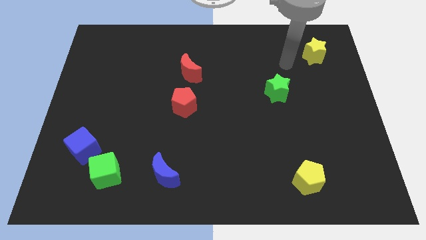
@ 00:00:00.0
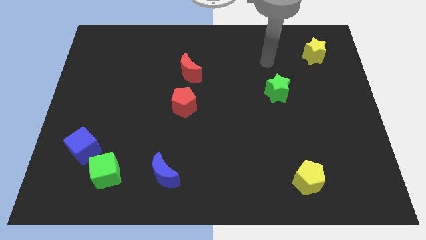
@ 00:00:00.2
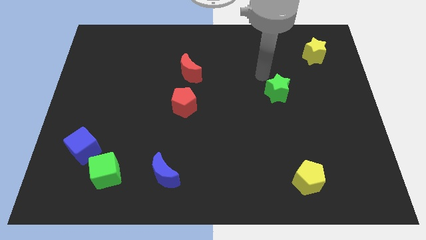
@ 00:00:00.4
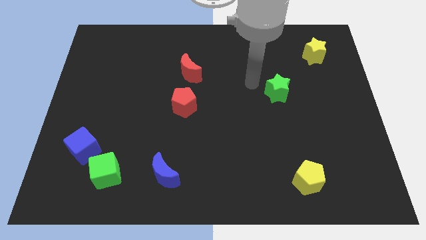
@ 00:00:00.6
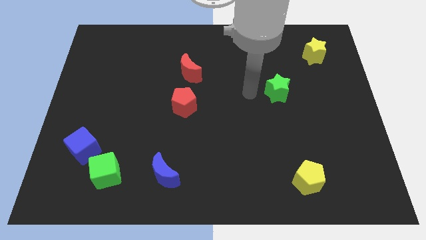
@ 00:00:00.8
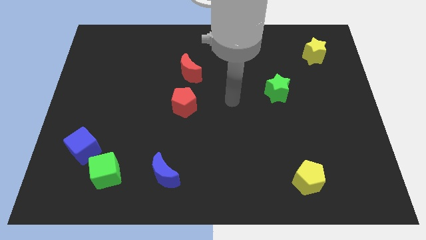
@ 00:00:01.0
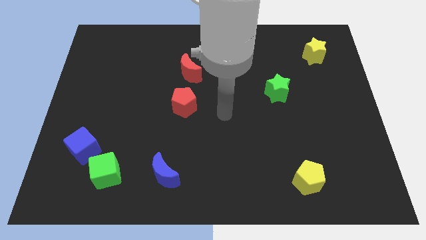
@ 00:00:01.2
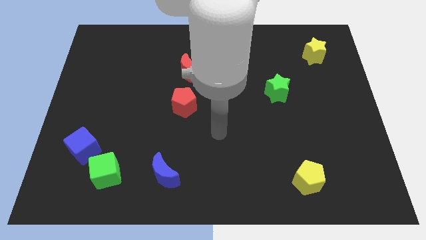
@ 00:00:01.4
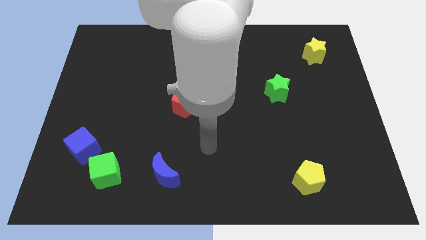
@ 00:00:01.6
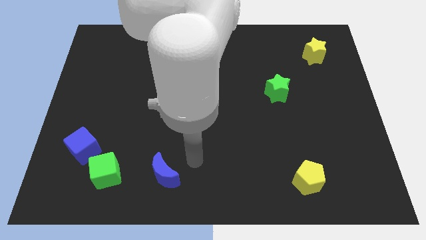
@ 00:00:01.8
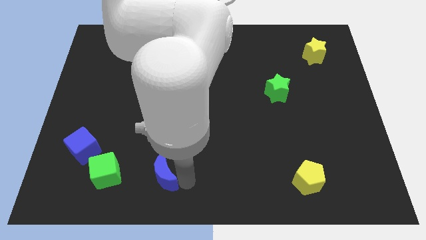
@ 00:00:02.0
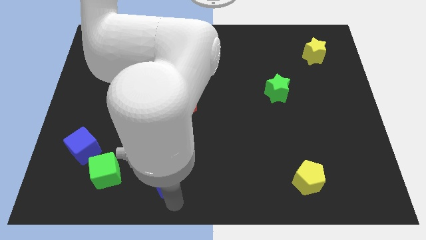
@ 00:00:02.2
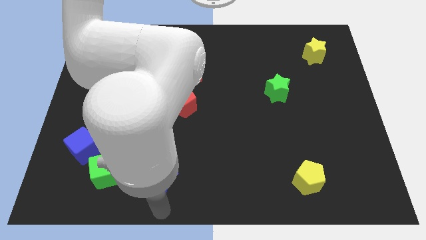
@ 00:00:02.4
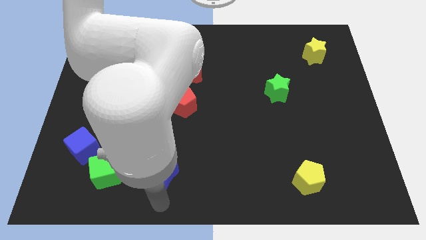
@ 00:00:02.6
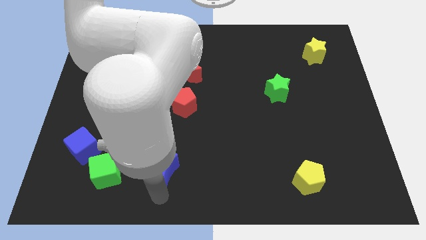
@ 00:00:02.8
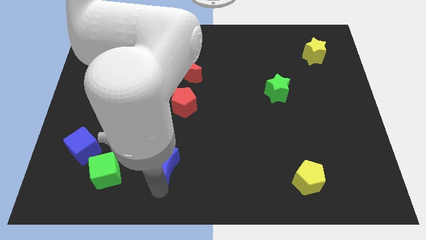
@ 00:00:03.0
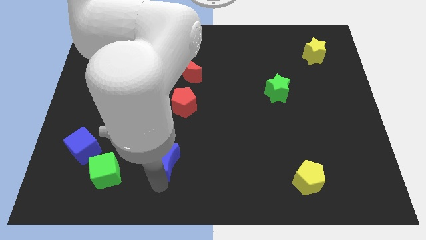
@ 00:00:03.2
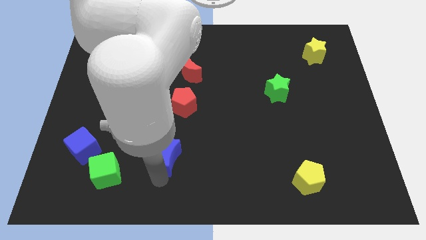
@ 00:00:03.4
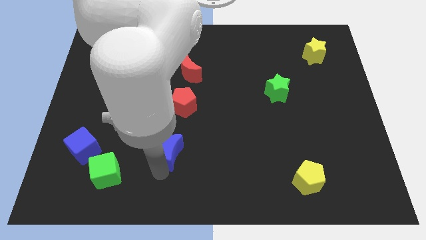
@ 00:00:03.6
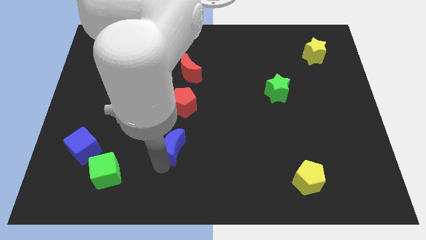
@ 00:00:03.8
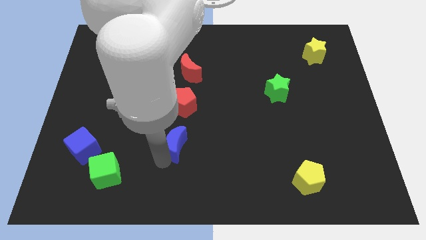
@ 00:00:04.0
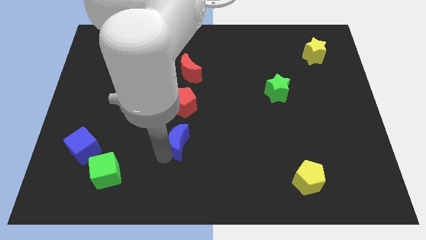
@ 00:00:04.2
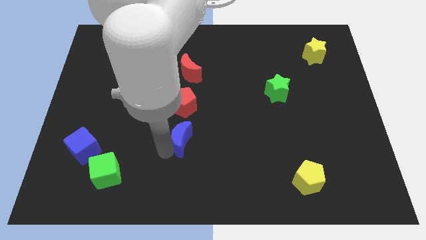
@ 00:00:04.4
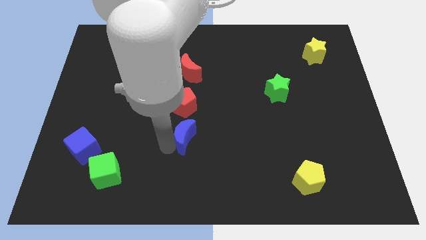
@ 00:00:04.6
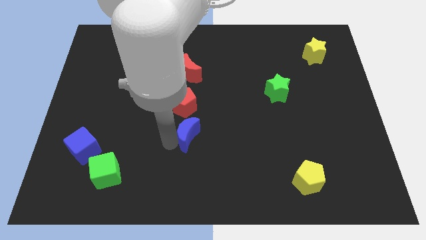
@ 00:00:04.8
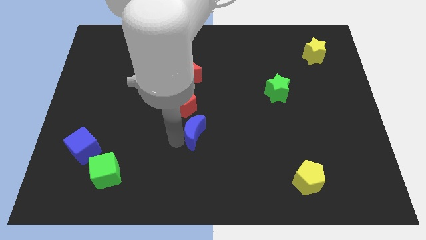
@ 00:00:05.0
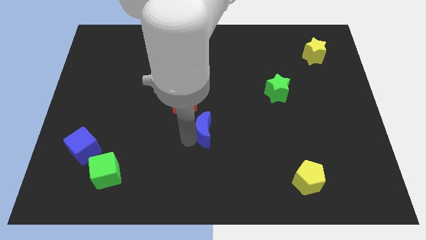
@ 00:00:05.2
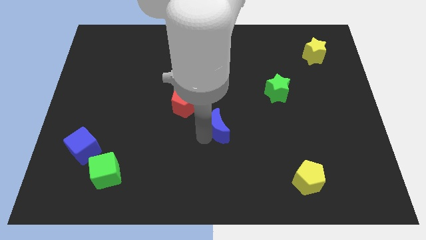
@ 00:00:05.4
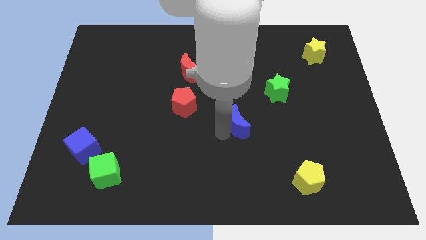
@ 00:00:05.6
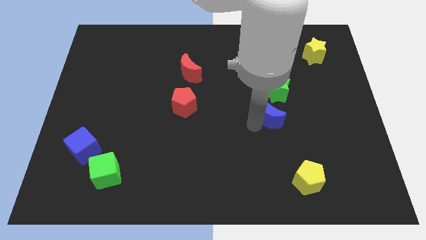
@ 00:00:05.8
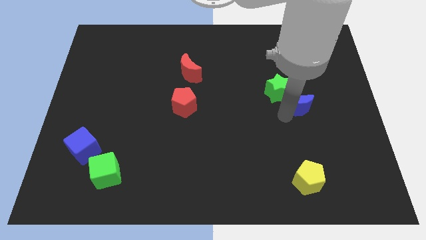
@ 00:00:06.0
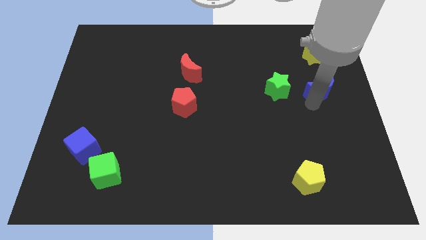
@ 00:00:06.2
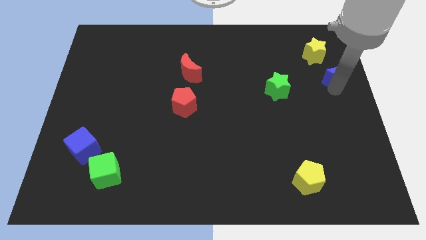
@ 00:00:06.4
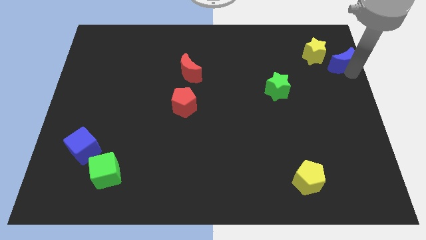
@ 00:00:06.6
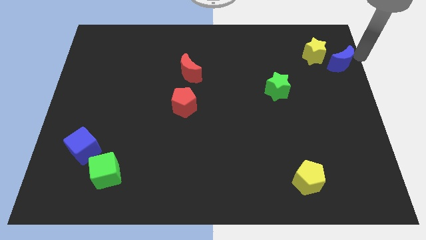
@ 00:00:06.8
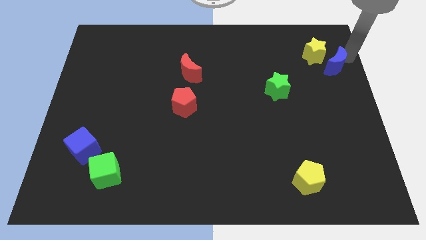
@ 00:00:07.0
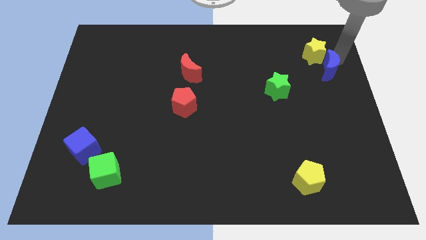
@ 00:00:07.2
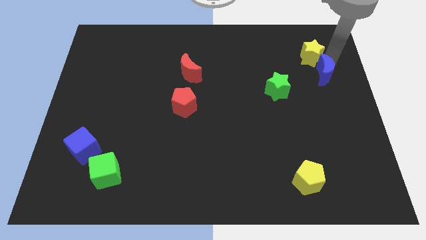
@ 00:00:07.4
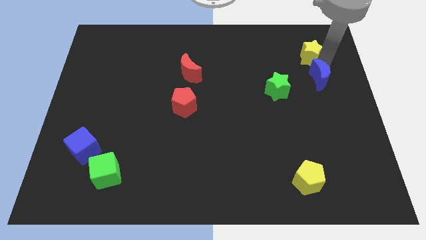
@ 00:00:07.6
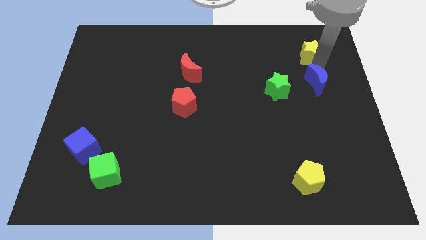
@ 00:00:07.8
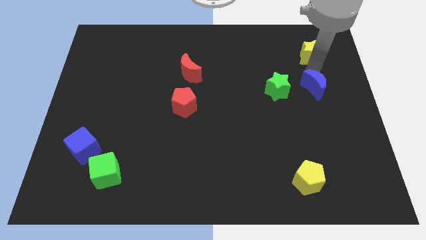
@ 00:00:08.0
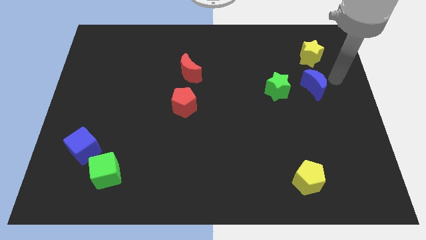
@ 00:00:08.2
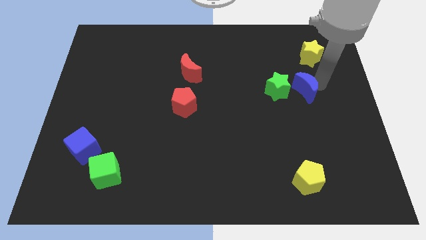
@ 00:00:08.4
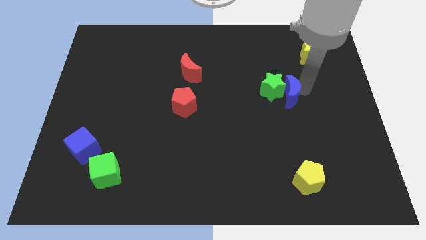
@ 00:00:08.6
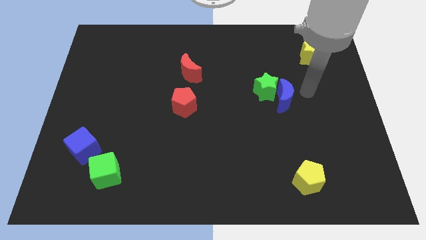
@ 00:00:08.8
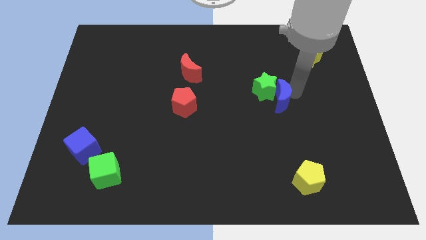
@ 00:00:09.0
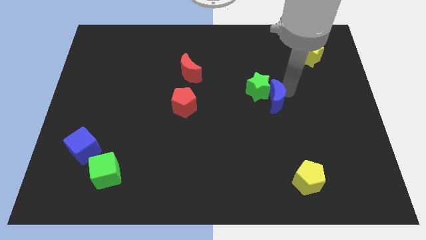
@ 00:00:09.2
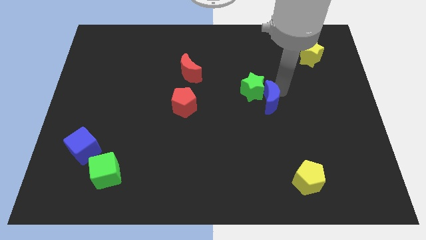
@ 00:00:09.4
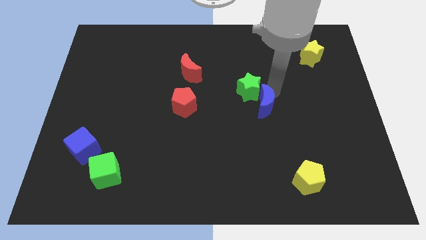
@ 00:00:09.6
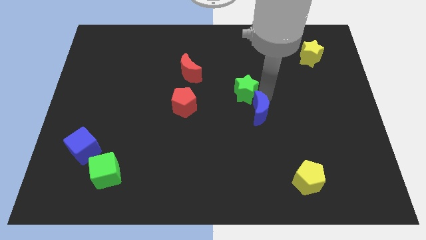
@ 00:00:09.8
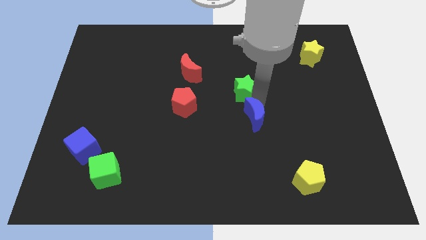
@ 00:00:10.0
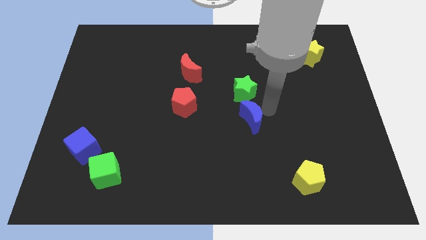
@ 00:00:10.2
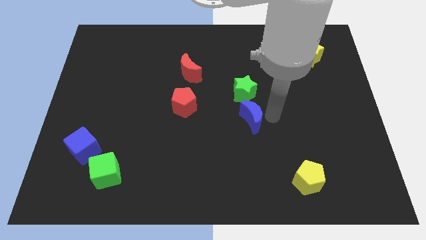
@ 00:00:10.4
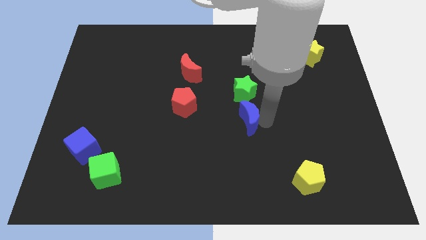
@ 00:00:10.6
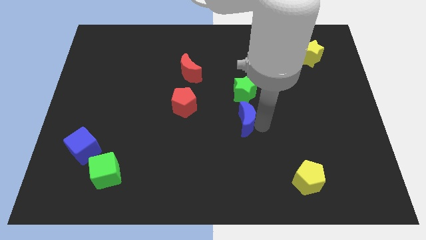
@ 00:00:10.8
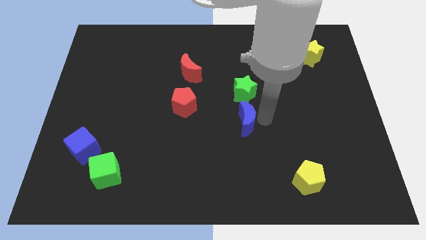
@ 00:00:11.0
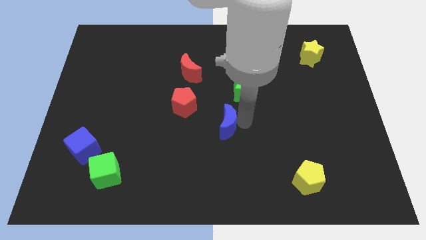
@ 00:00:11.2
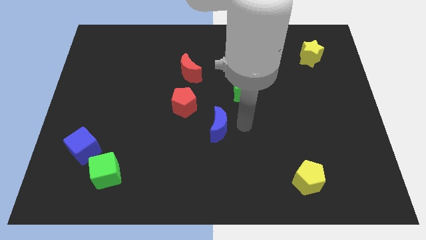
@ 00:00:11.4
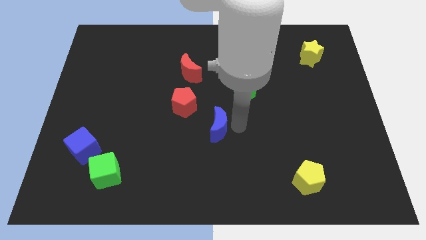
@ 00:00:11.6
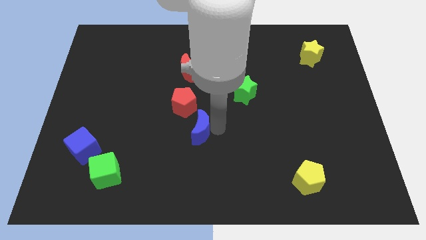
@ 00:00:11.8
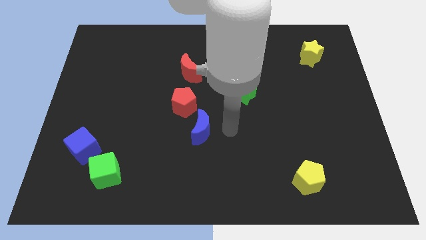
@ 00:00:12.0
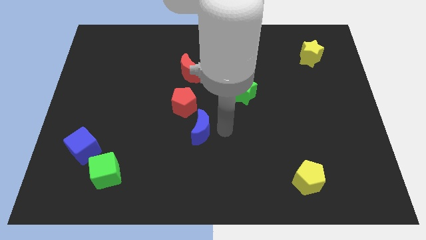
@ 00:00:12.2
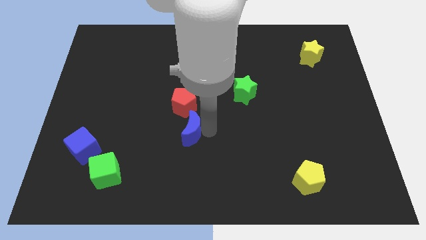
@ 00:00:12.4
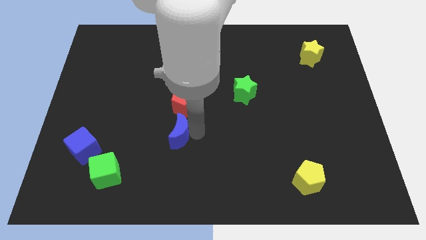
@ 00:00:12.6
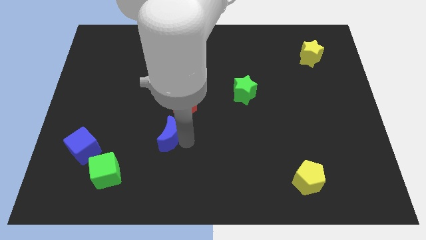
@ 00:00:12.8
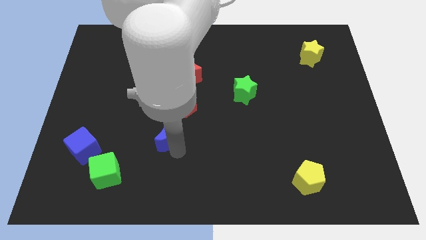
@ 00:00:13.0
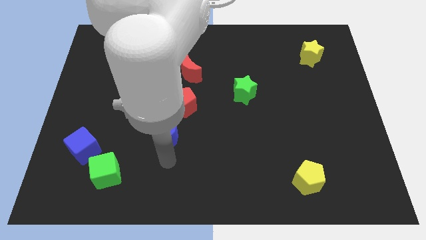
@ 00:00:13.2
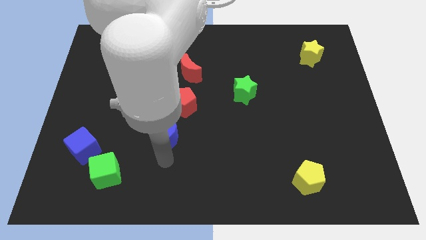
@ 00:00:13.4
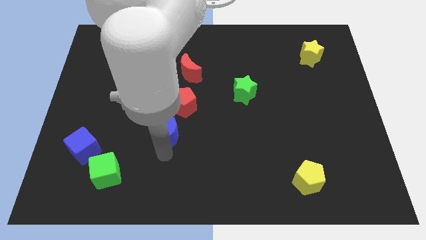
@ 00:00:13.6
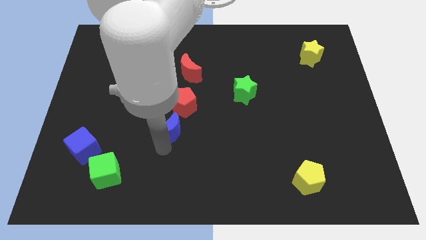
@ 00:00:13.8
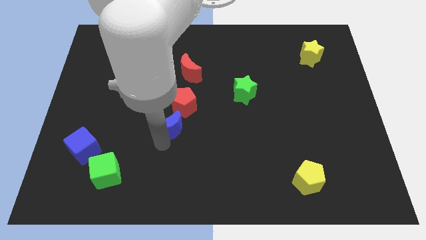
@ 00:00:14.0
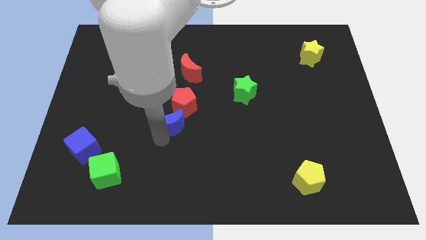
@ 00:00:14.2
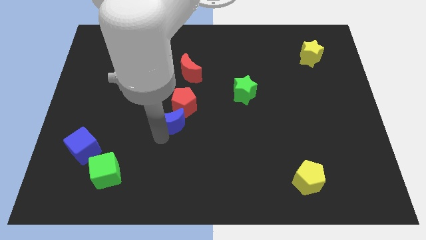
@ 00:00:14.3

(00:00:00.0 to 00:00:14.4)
move the blue moon to the red pentagon

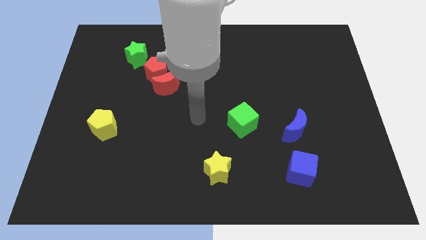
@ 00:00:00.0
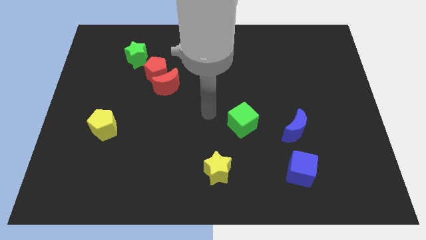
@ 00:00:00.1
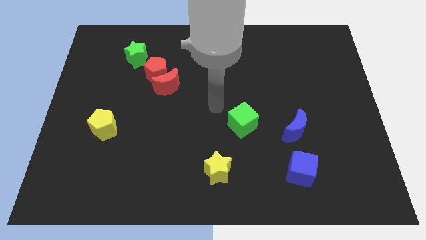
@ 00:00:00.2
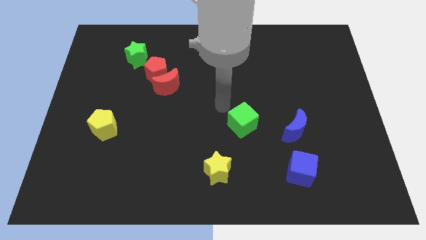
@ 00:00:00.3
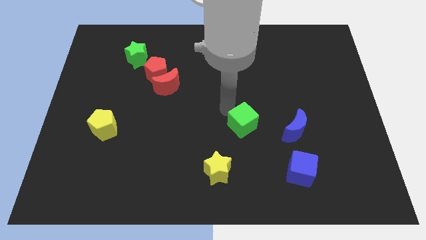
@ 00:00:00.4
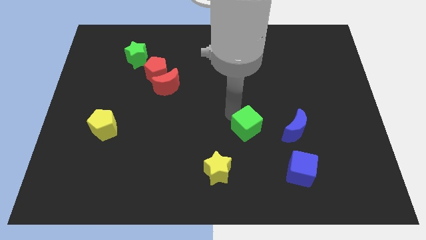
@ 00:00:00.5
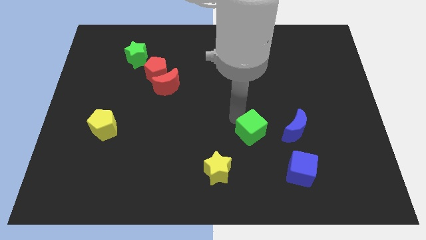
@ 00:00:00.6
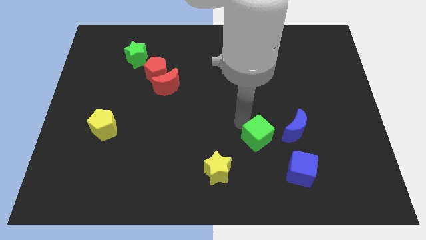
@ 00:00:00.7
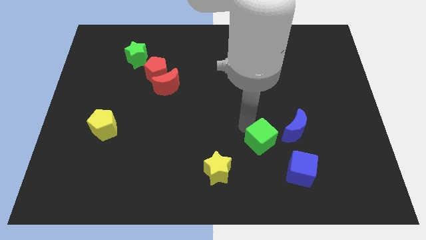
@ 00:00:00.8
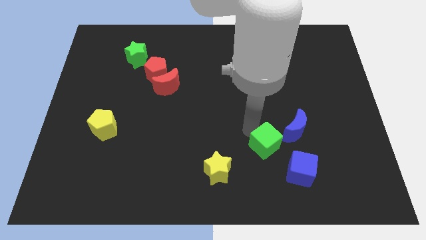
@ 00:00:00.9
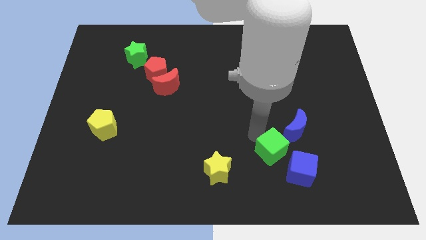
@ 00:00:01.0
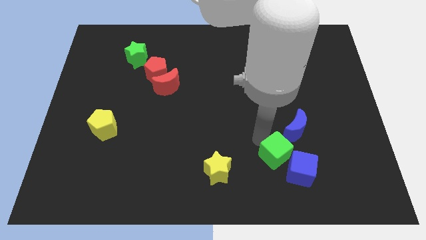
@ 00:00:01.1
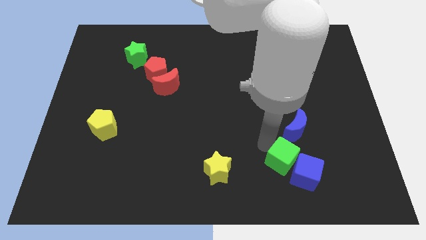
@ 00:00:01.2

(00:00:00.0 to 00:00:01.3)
slide the green cube towards the blue cube
